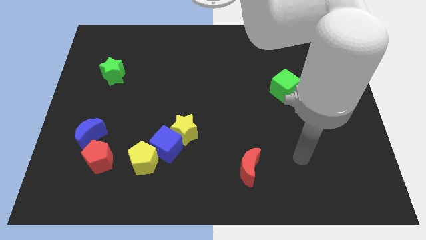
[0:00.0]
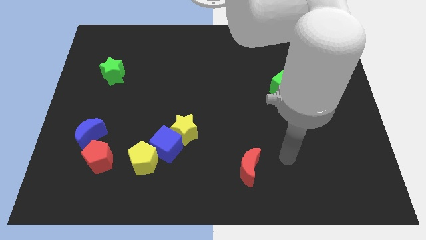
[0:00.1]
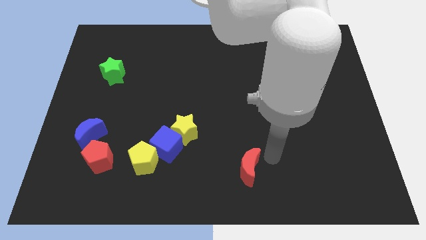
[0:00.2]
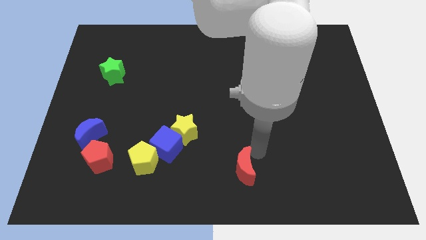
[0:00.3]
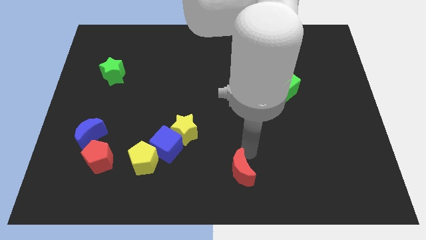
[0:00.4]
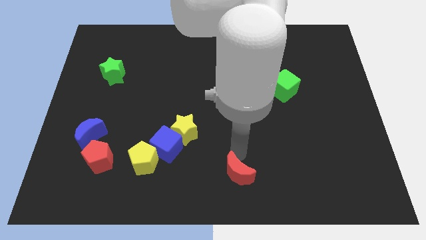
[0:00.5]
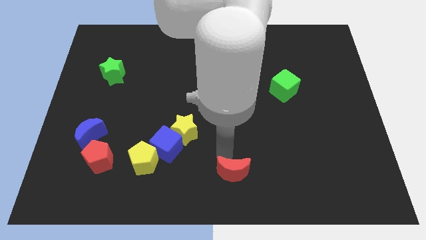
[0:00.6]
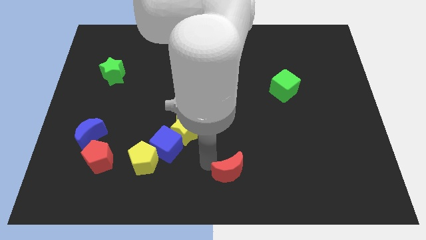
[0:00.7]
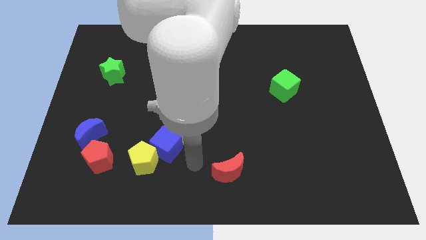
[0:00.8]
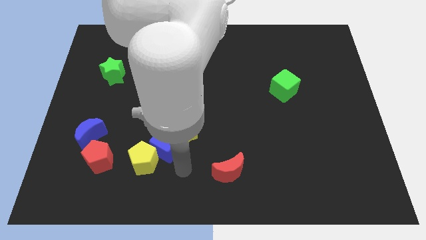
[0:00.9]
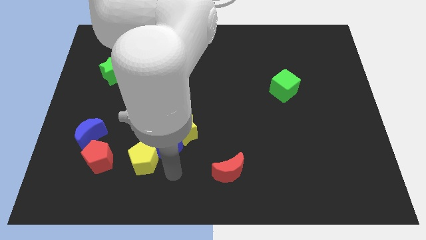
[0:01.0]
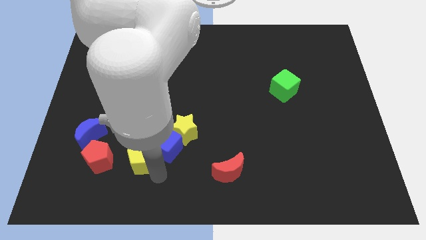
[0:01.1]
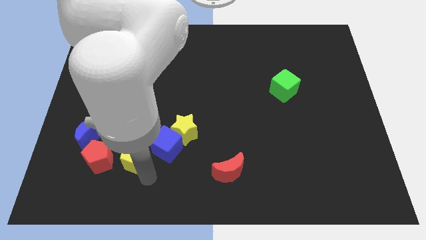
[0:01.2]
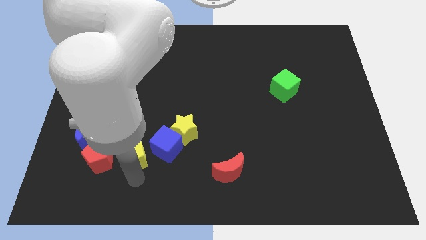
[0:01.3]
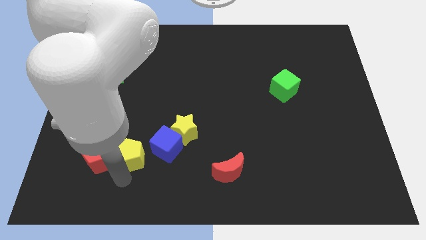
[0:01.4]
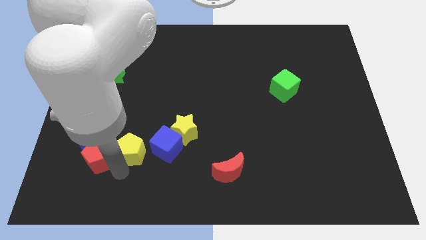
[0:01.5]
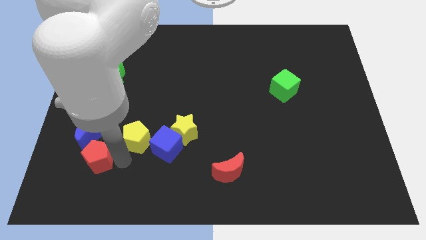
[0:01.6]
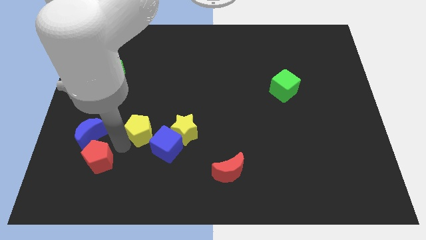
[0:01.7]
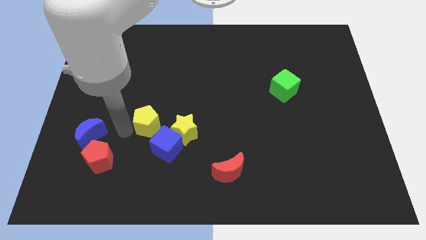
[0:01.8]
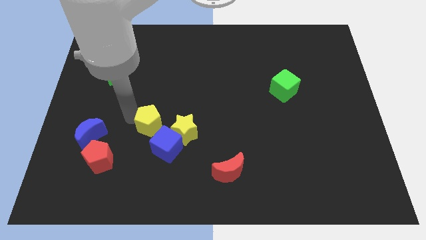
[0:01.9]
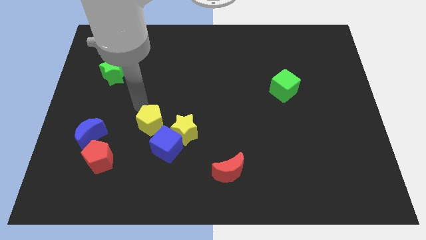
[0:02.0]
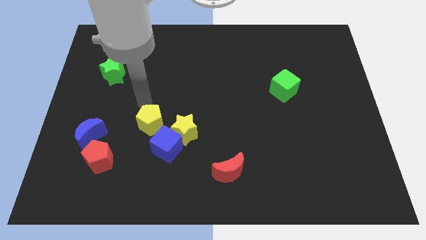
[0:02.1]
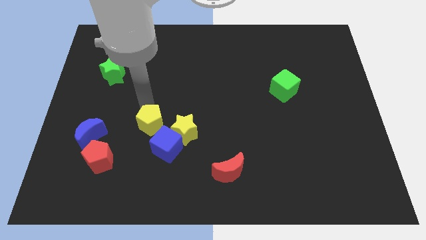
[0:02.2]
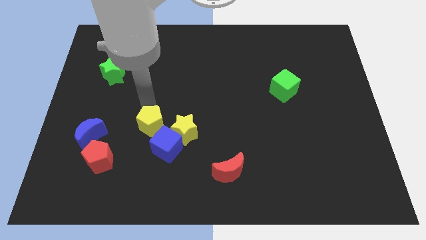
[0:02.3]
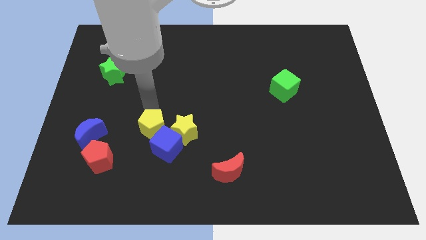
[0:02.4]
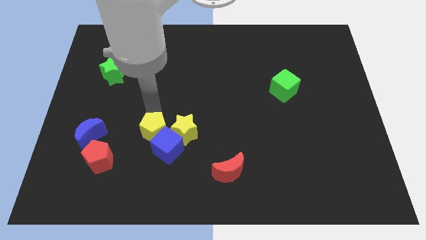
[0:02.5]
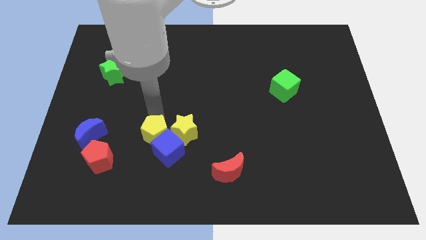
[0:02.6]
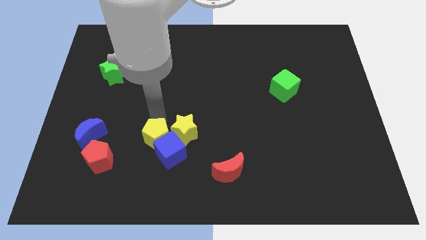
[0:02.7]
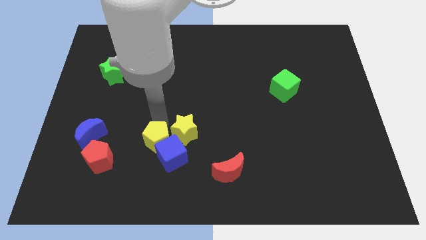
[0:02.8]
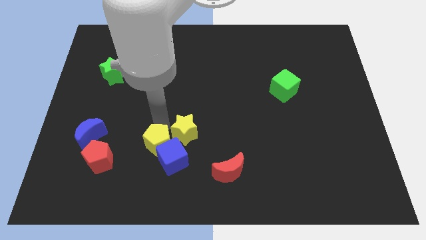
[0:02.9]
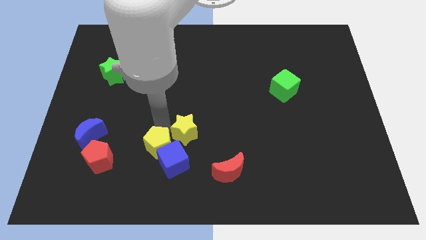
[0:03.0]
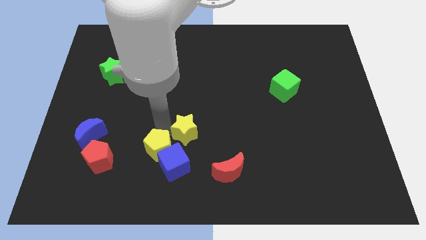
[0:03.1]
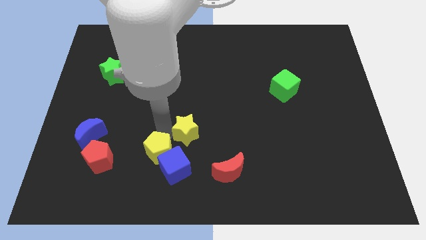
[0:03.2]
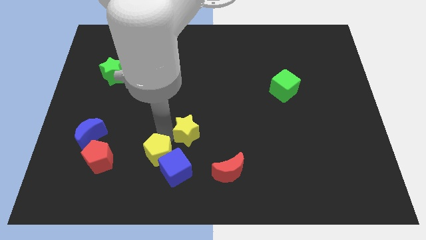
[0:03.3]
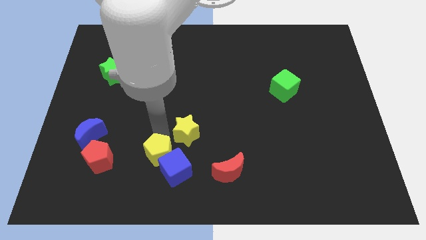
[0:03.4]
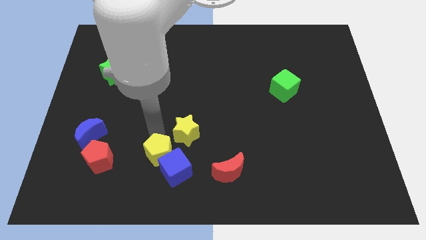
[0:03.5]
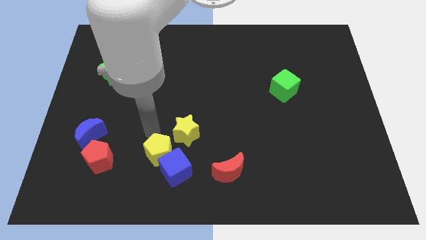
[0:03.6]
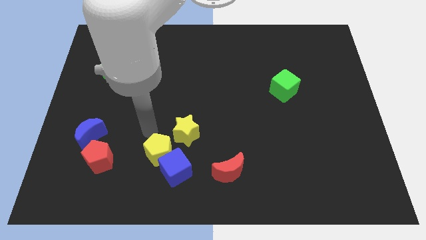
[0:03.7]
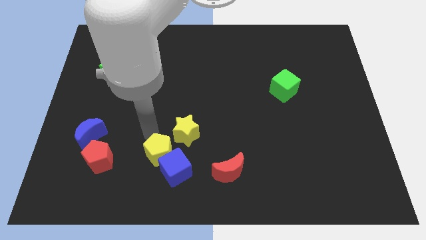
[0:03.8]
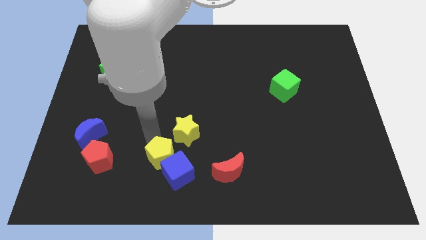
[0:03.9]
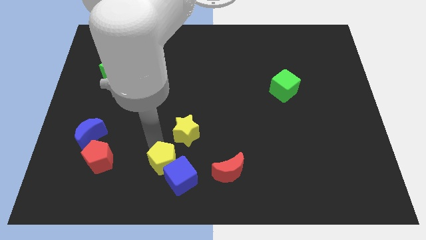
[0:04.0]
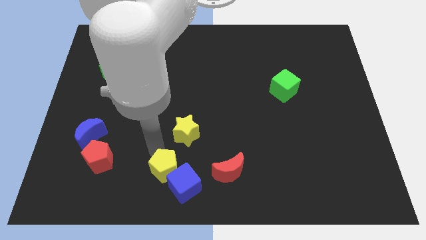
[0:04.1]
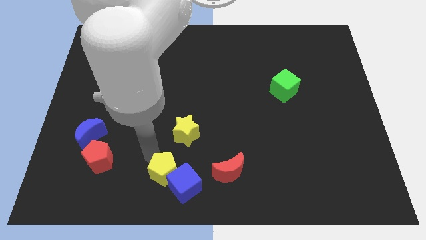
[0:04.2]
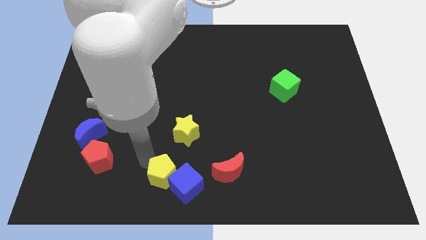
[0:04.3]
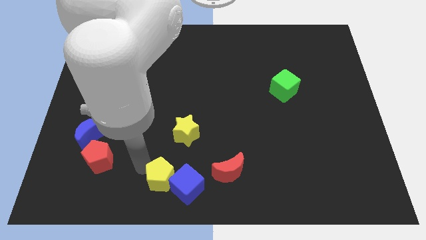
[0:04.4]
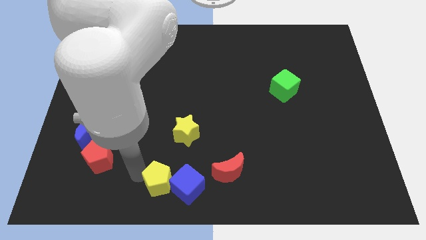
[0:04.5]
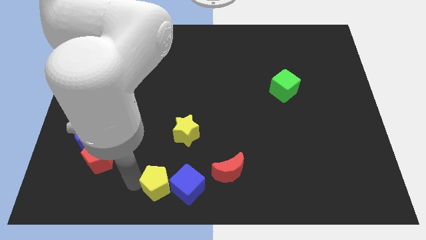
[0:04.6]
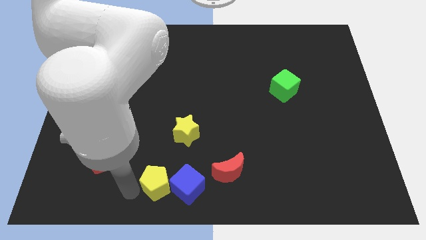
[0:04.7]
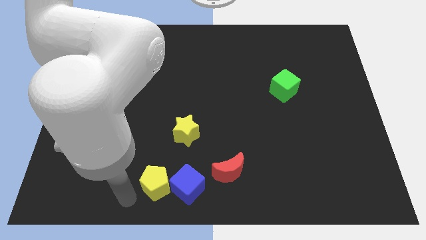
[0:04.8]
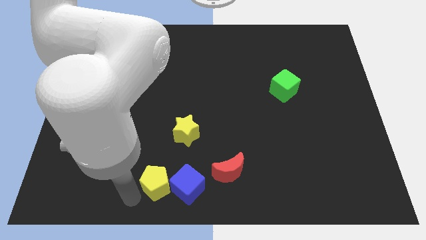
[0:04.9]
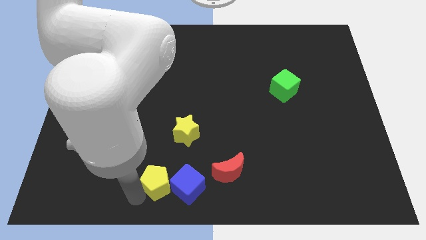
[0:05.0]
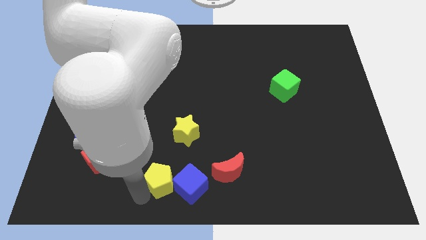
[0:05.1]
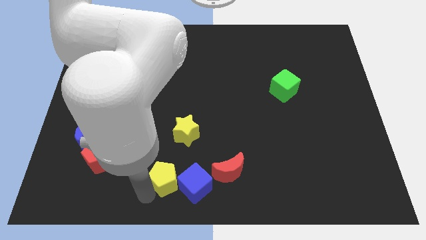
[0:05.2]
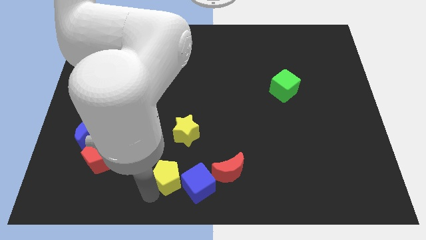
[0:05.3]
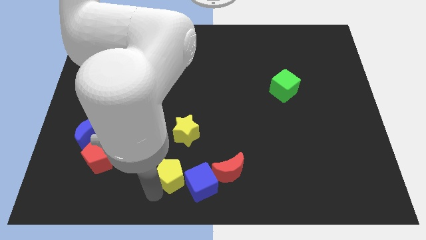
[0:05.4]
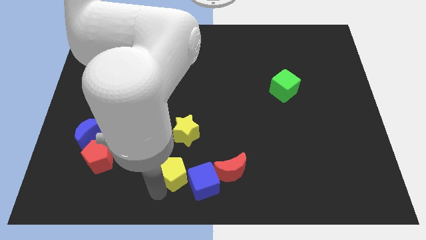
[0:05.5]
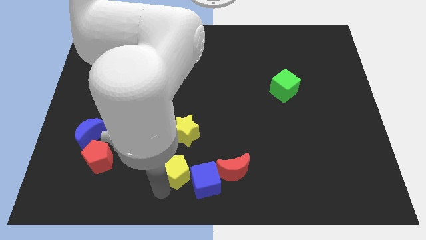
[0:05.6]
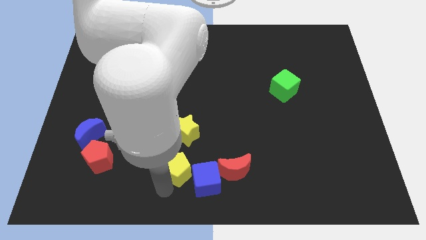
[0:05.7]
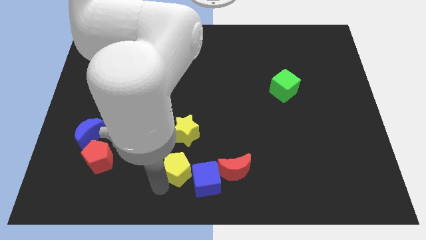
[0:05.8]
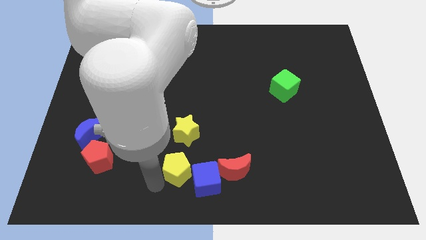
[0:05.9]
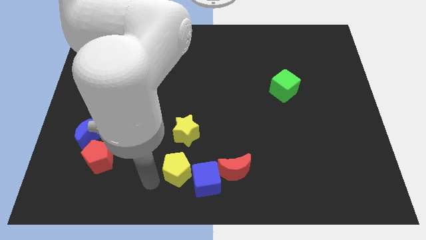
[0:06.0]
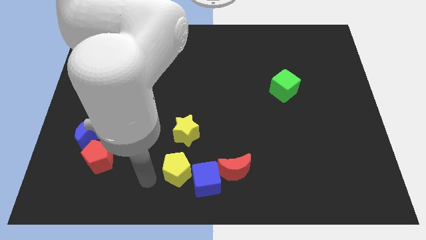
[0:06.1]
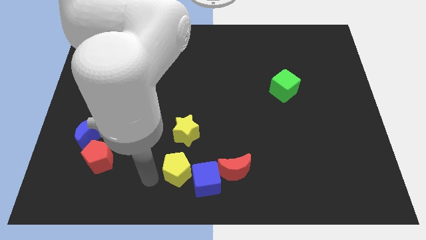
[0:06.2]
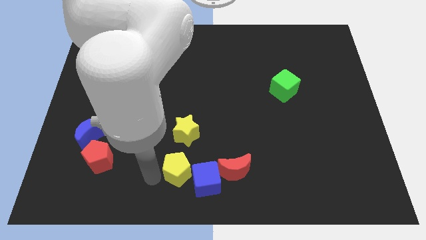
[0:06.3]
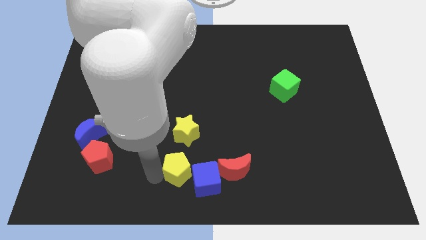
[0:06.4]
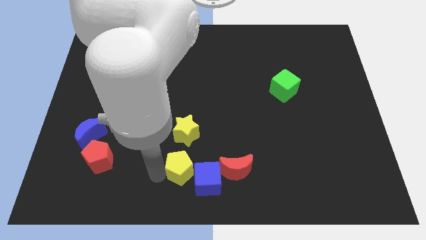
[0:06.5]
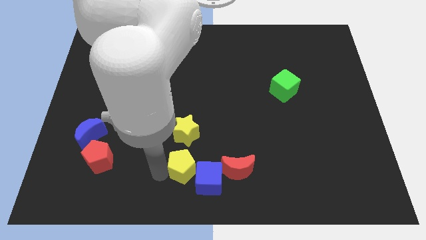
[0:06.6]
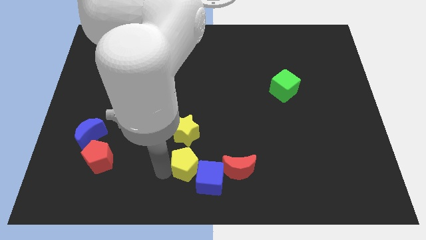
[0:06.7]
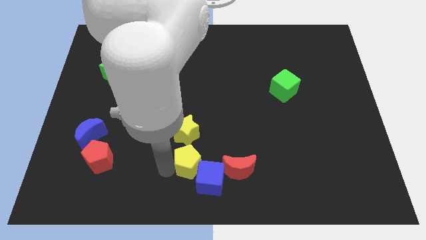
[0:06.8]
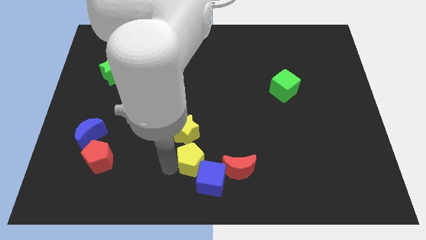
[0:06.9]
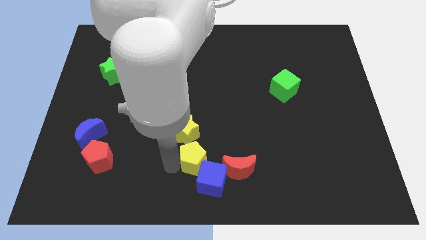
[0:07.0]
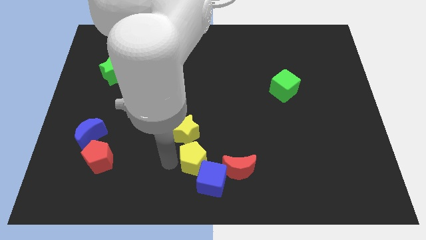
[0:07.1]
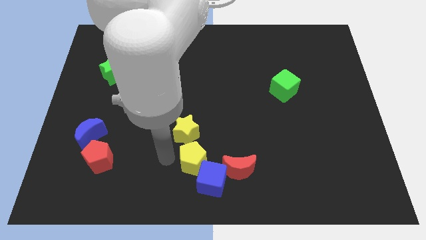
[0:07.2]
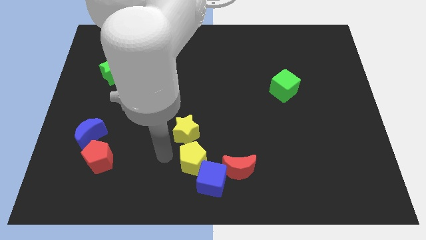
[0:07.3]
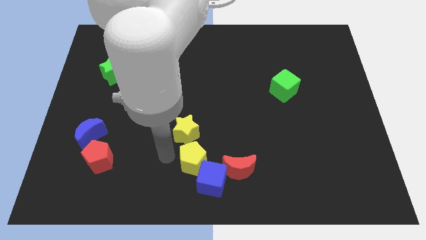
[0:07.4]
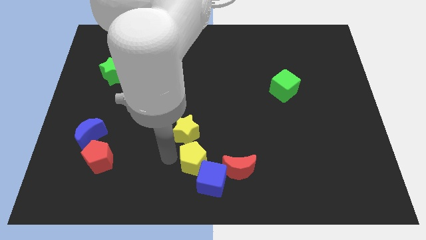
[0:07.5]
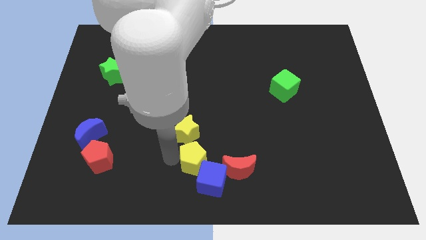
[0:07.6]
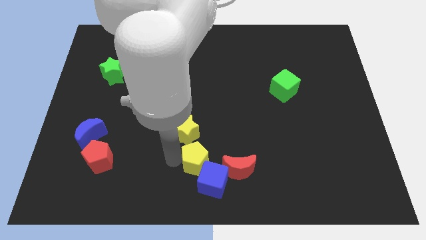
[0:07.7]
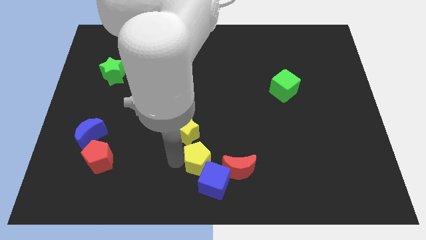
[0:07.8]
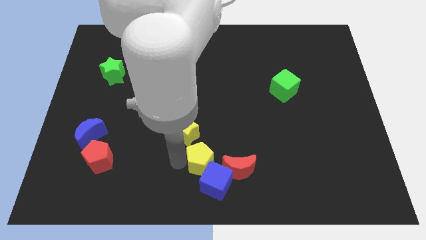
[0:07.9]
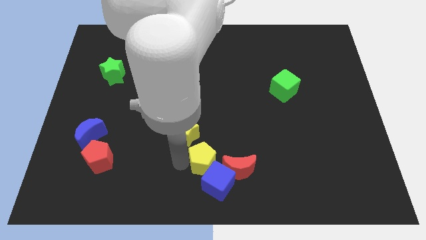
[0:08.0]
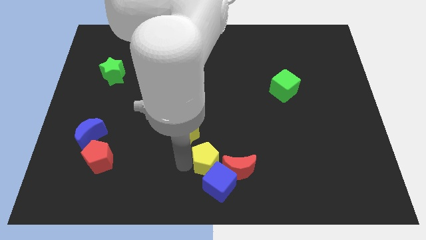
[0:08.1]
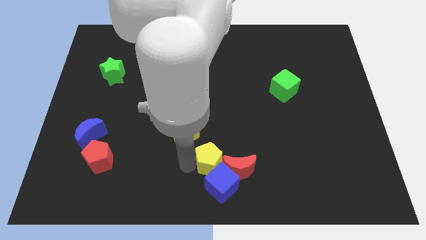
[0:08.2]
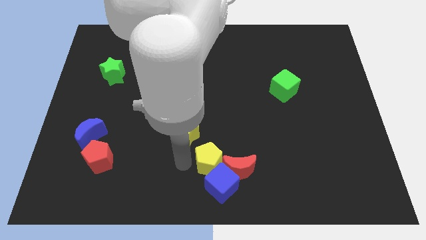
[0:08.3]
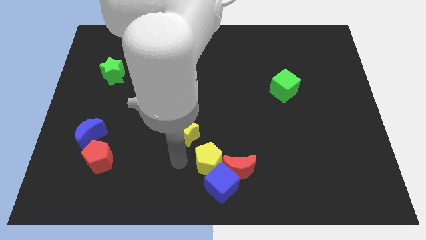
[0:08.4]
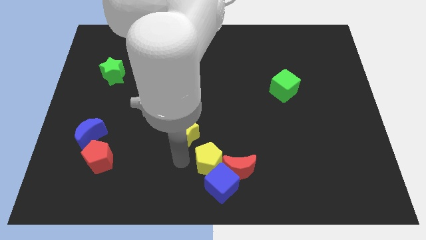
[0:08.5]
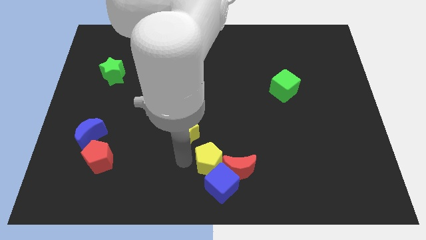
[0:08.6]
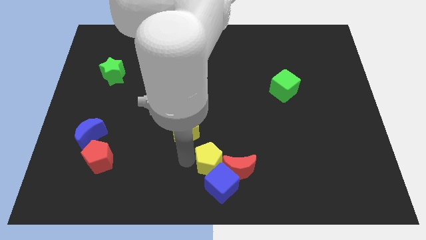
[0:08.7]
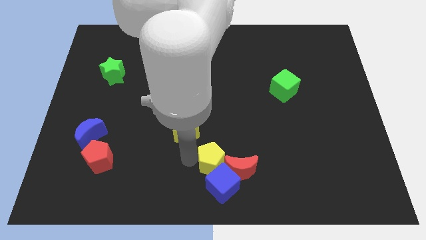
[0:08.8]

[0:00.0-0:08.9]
push the yellow pentagon close to the red moon
